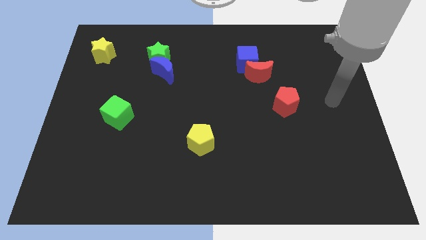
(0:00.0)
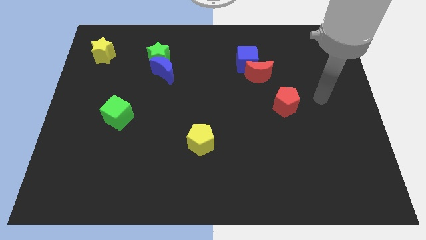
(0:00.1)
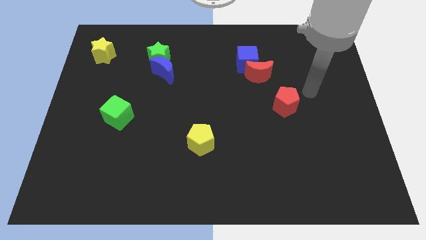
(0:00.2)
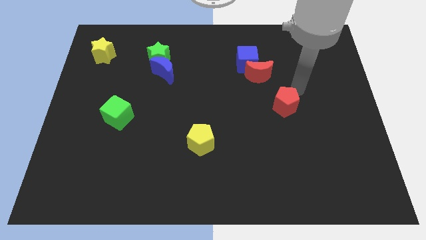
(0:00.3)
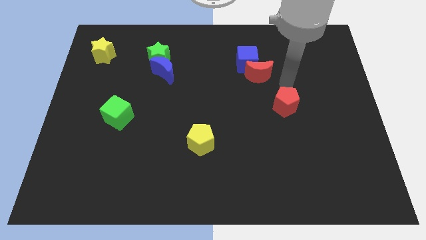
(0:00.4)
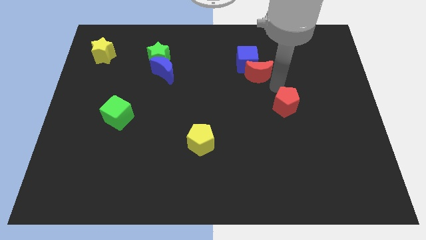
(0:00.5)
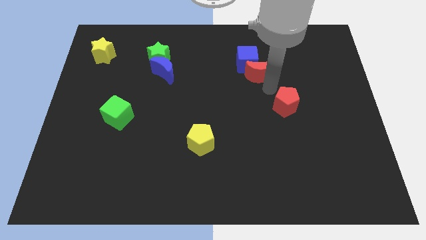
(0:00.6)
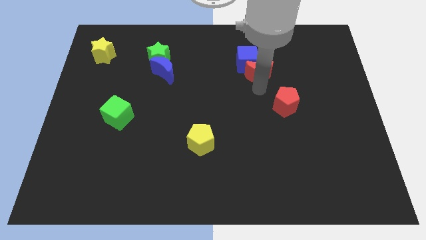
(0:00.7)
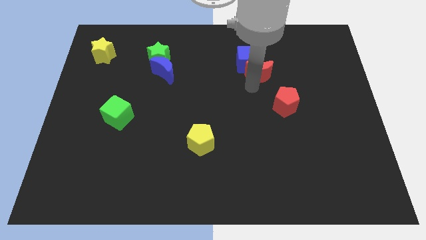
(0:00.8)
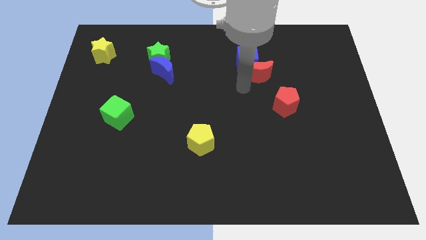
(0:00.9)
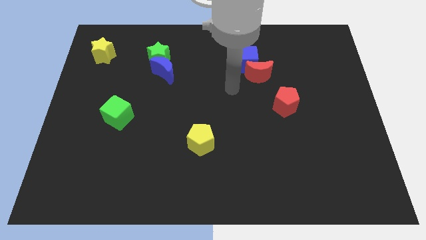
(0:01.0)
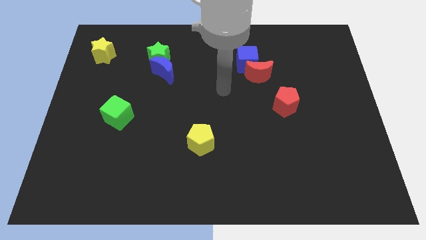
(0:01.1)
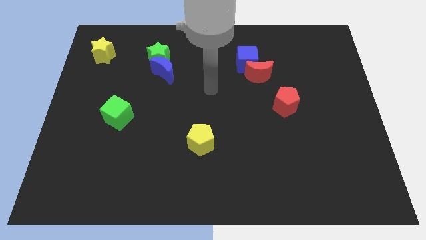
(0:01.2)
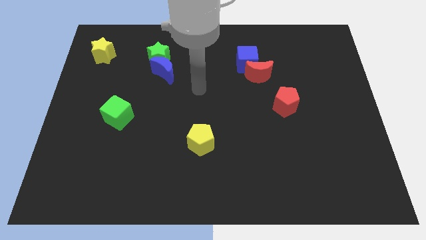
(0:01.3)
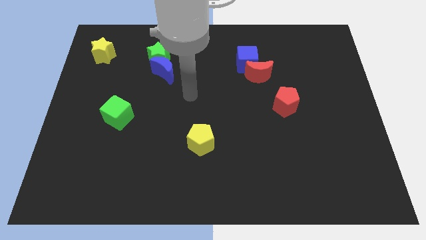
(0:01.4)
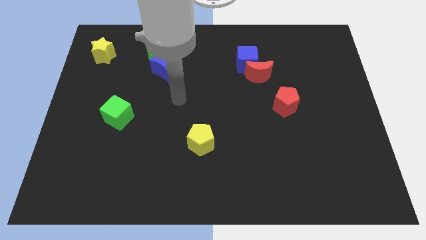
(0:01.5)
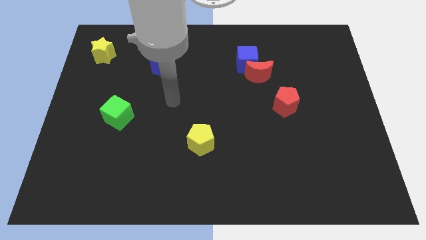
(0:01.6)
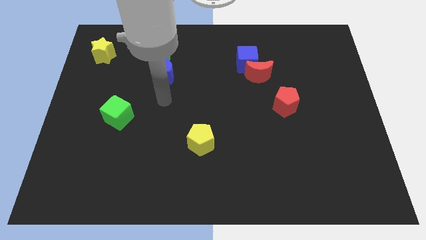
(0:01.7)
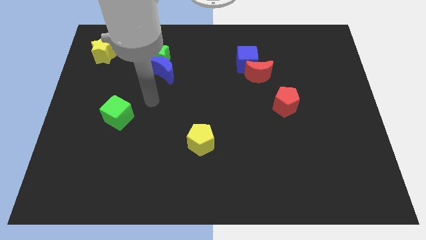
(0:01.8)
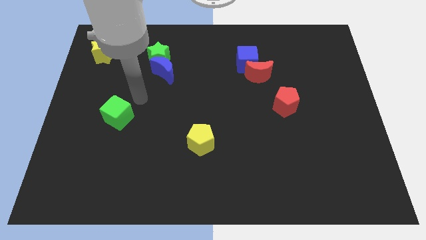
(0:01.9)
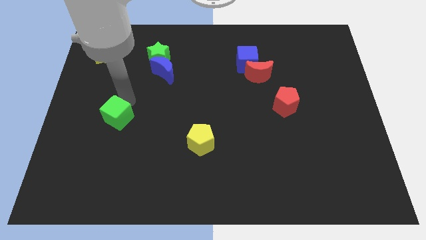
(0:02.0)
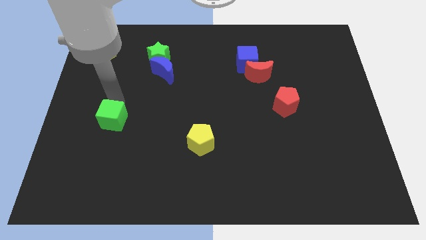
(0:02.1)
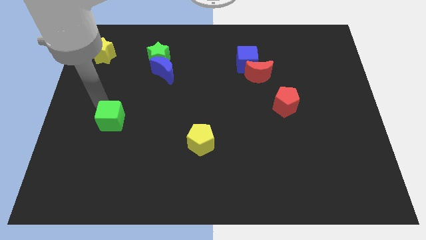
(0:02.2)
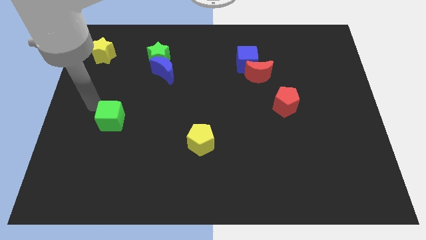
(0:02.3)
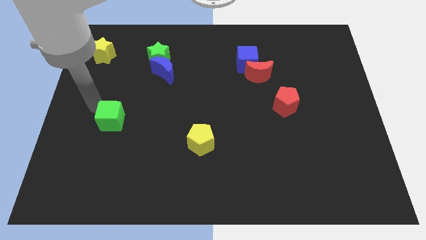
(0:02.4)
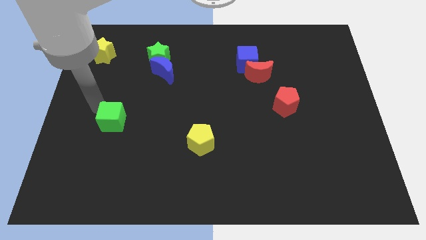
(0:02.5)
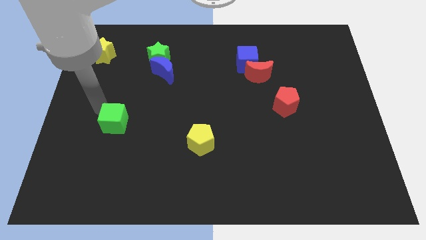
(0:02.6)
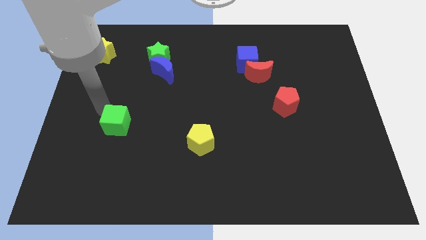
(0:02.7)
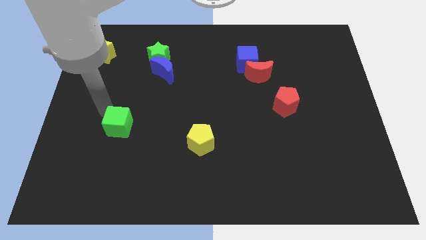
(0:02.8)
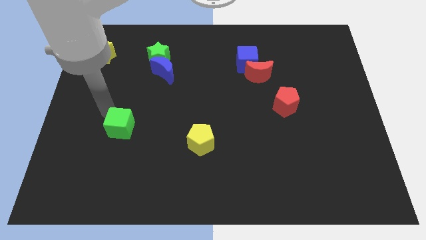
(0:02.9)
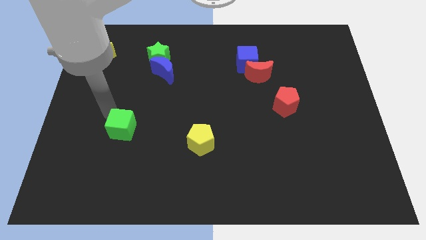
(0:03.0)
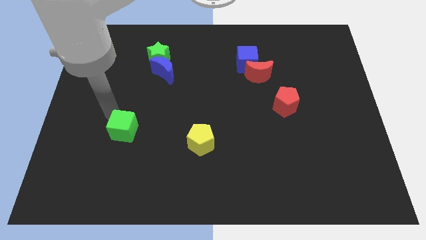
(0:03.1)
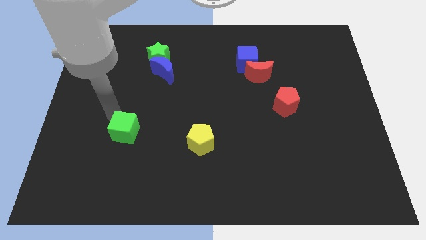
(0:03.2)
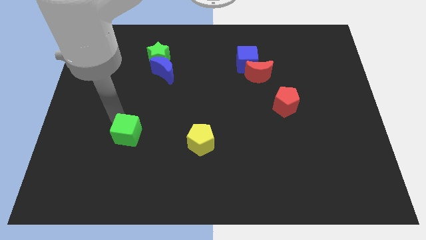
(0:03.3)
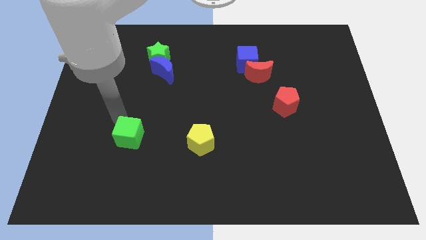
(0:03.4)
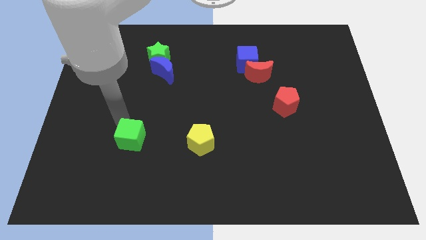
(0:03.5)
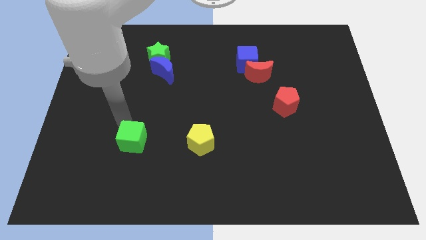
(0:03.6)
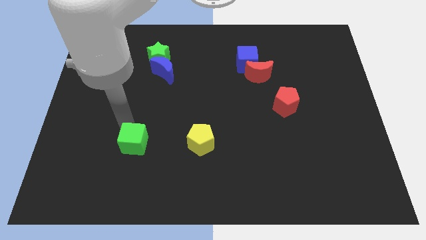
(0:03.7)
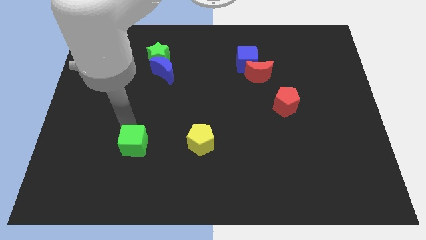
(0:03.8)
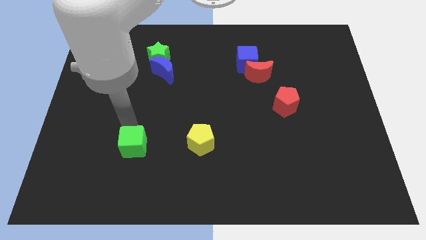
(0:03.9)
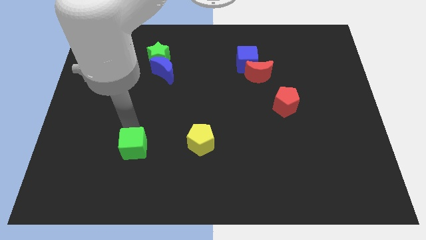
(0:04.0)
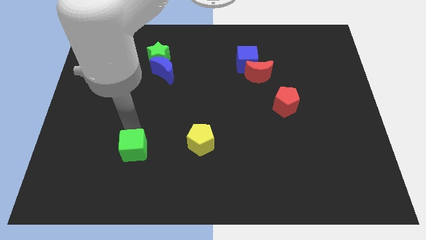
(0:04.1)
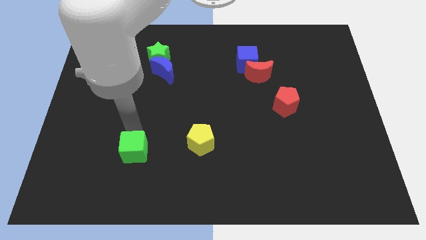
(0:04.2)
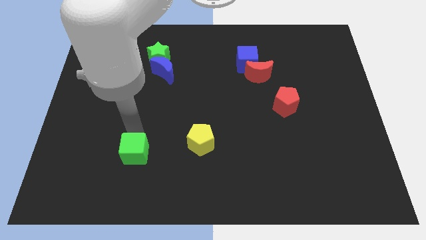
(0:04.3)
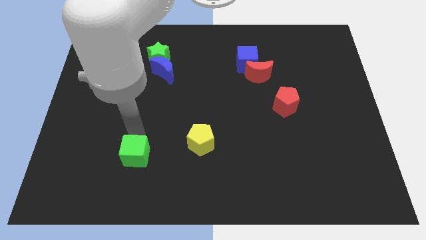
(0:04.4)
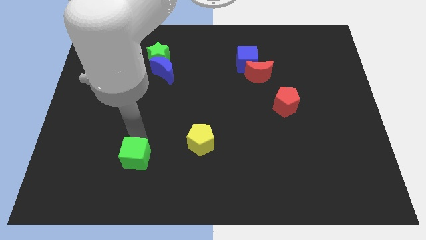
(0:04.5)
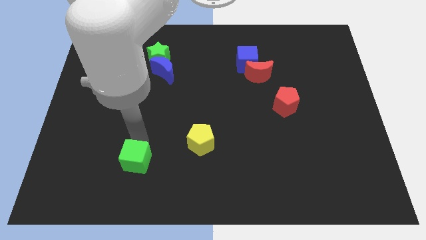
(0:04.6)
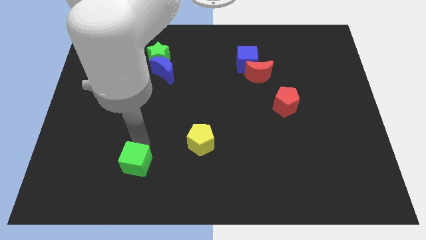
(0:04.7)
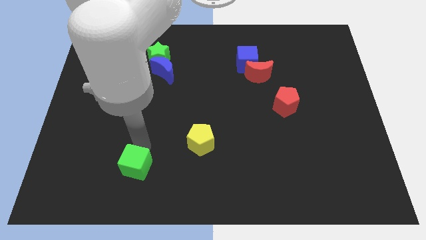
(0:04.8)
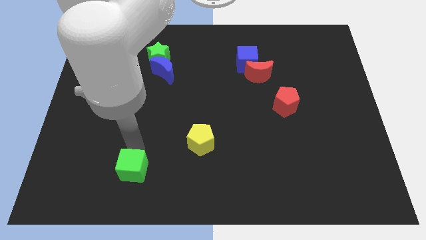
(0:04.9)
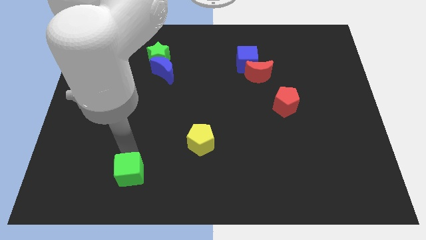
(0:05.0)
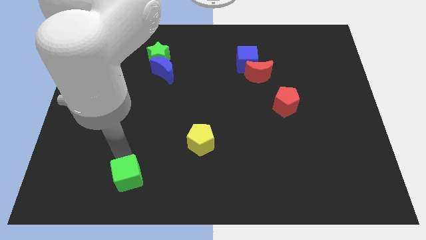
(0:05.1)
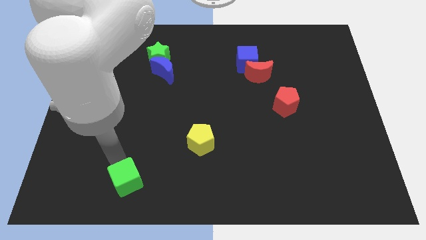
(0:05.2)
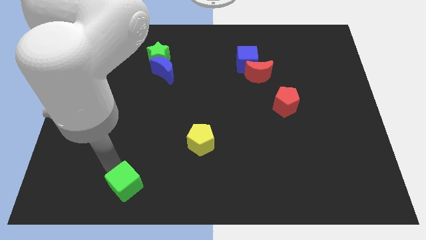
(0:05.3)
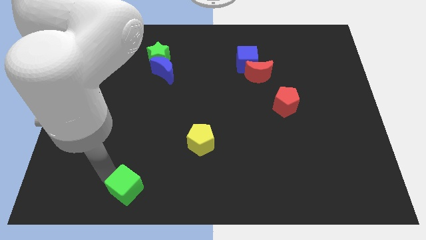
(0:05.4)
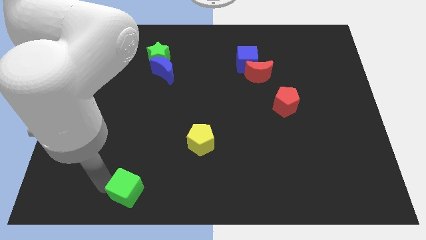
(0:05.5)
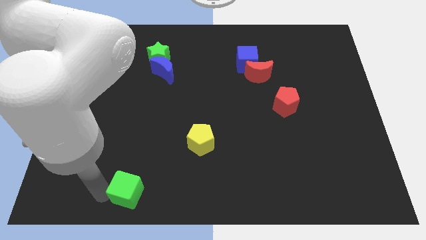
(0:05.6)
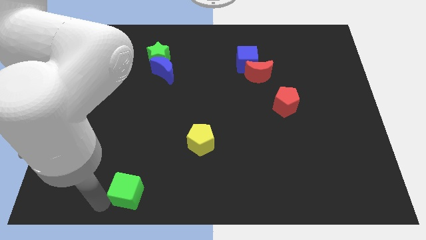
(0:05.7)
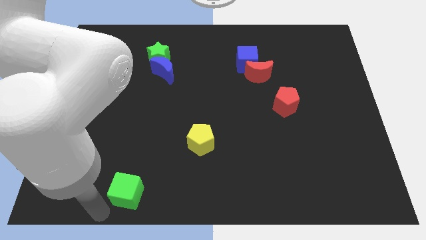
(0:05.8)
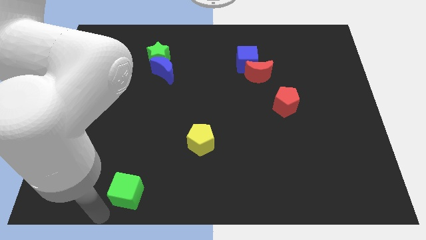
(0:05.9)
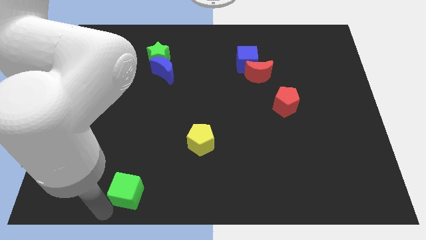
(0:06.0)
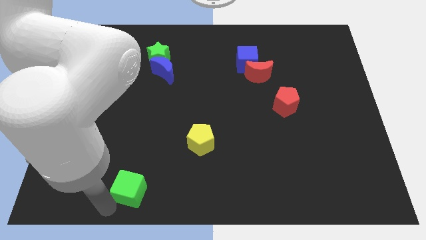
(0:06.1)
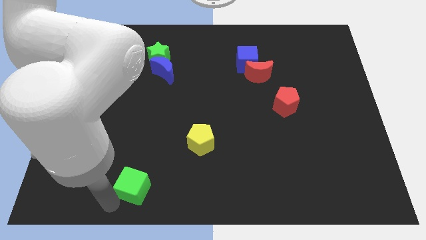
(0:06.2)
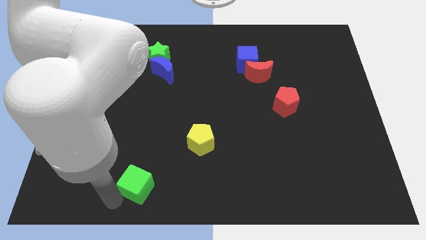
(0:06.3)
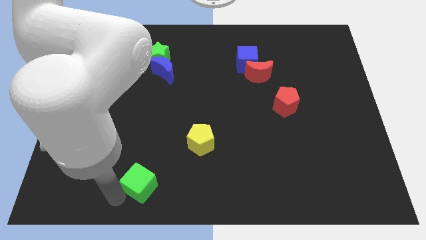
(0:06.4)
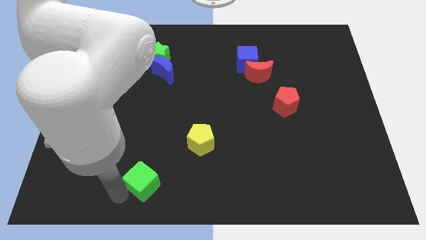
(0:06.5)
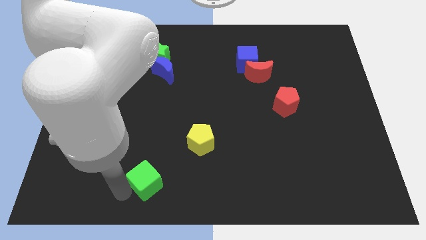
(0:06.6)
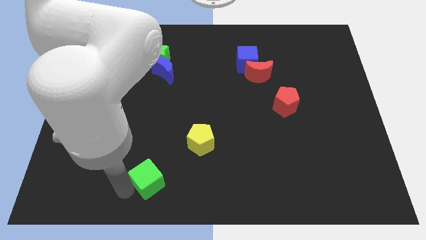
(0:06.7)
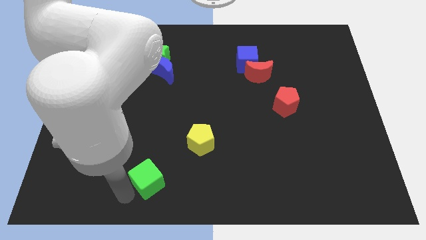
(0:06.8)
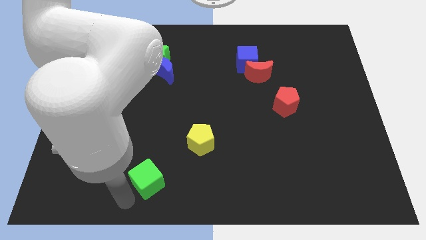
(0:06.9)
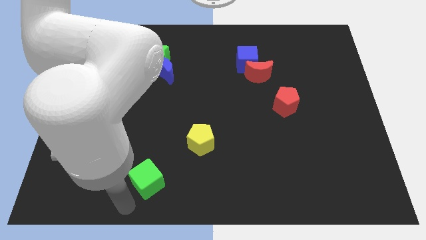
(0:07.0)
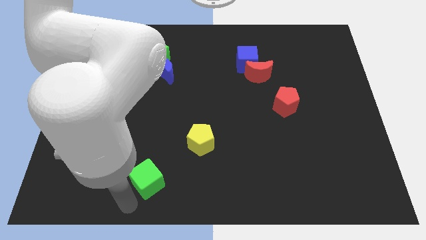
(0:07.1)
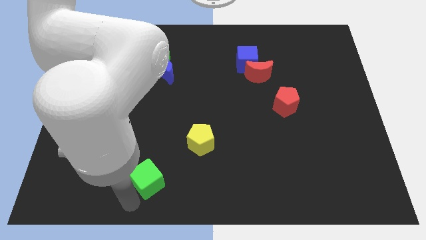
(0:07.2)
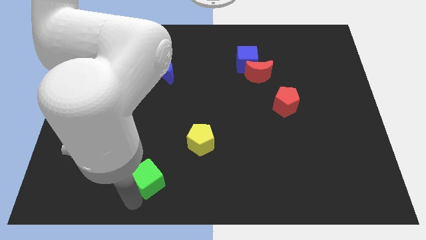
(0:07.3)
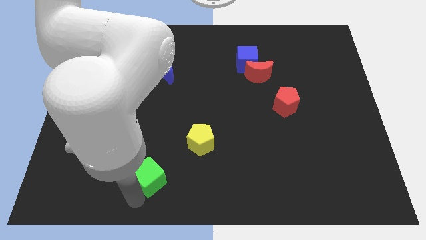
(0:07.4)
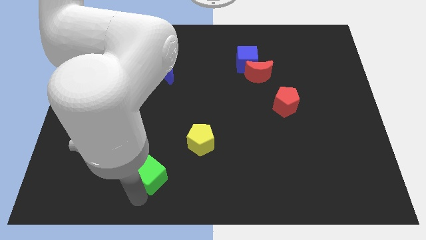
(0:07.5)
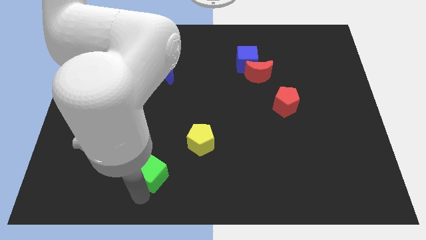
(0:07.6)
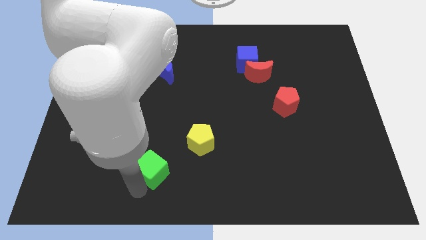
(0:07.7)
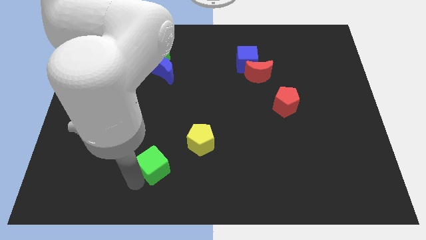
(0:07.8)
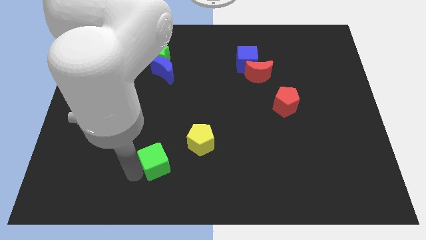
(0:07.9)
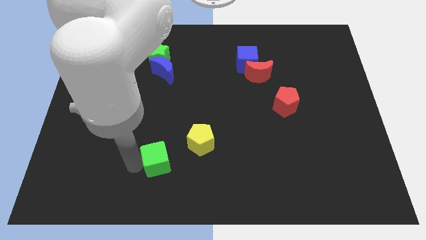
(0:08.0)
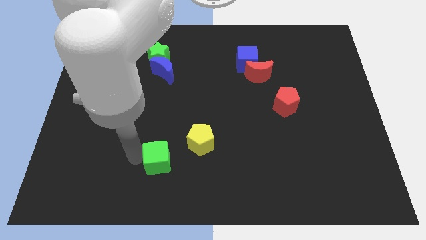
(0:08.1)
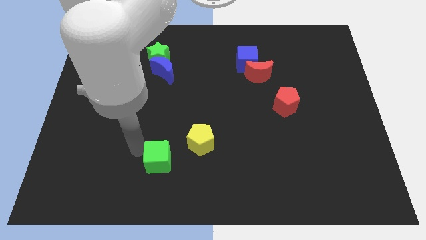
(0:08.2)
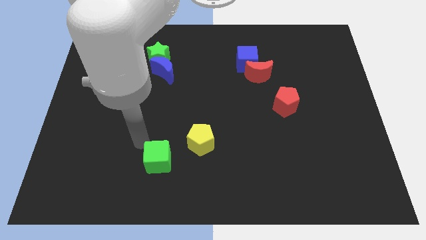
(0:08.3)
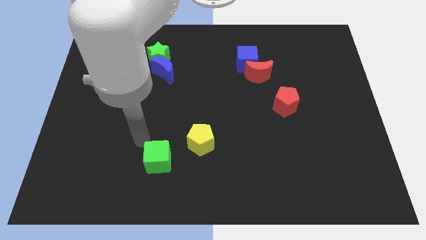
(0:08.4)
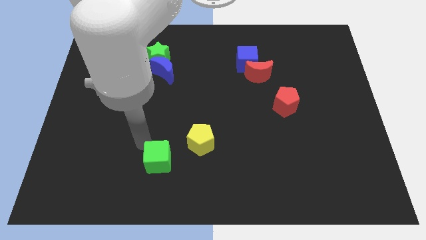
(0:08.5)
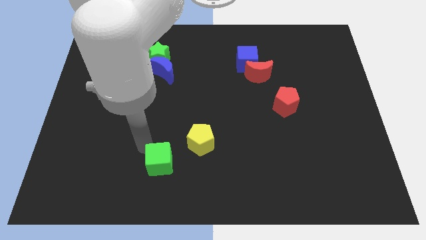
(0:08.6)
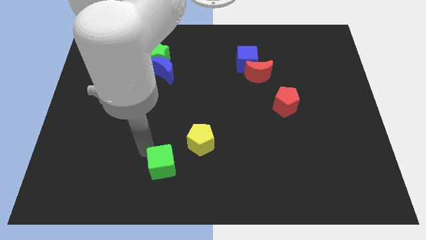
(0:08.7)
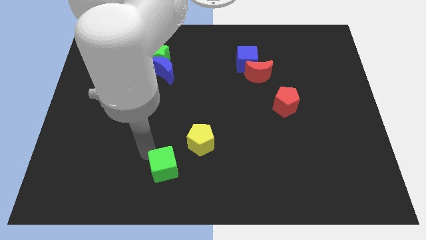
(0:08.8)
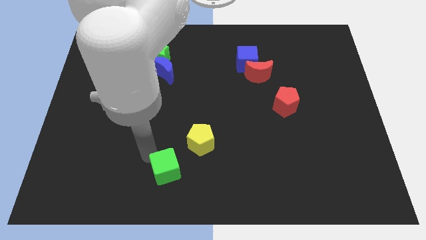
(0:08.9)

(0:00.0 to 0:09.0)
slide the green cube to the bottom
